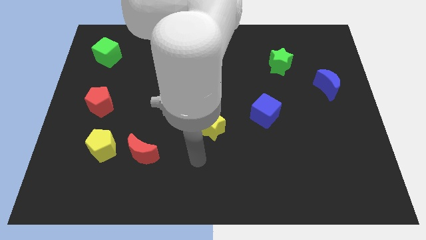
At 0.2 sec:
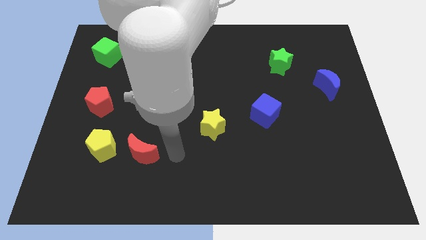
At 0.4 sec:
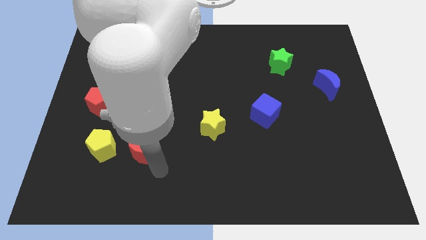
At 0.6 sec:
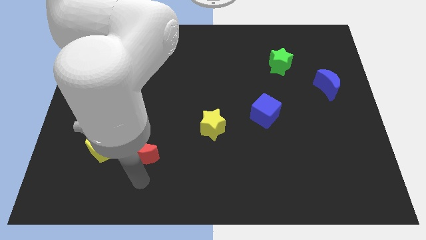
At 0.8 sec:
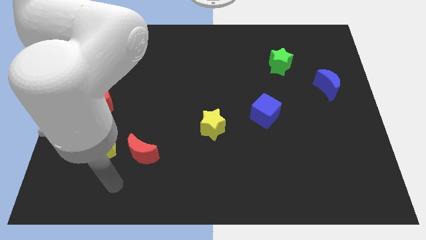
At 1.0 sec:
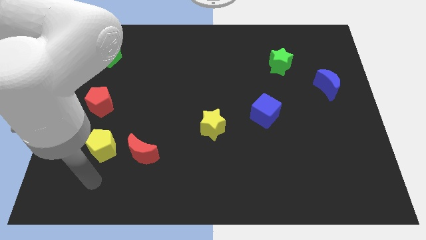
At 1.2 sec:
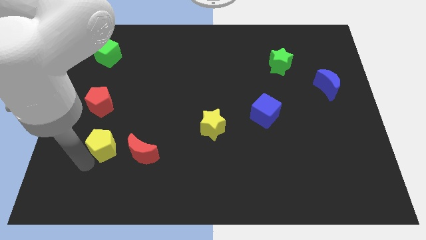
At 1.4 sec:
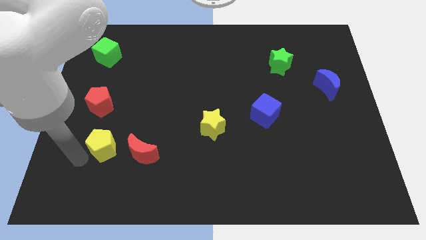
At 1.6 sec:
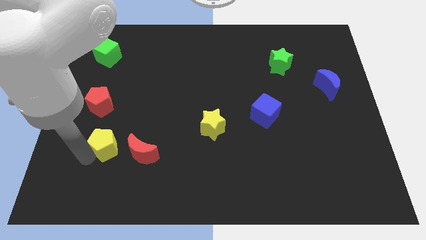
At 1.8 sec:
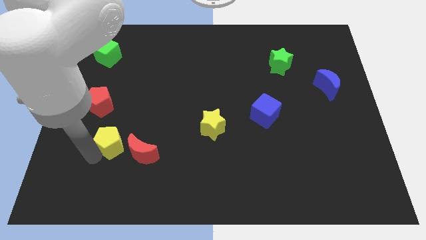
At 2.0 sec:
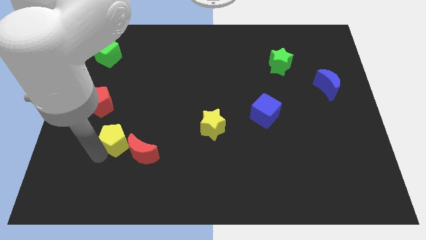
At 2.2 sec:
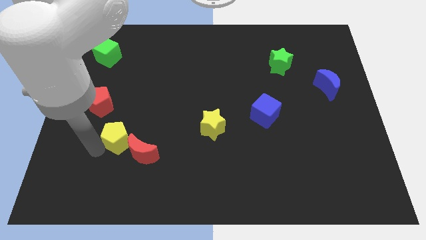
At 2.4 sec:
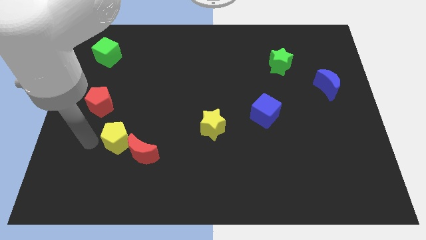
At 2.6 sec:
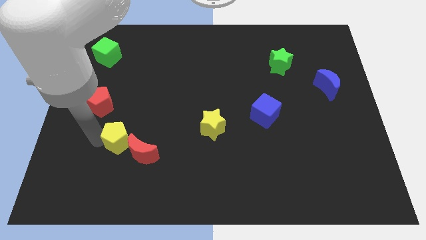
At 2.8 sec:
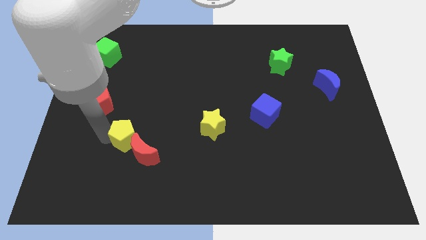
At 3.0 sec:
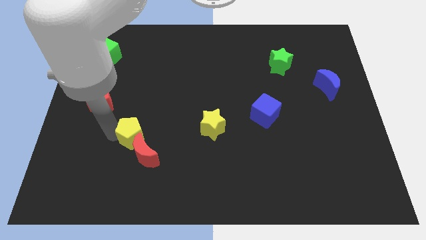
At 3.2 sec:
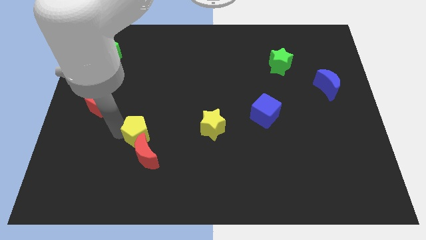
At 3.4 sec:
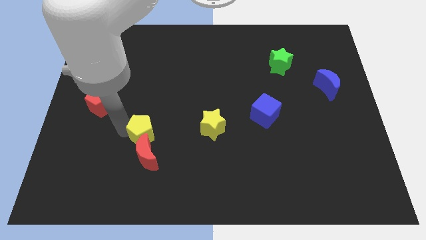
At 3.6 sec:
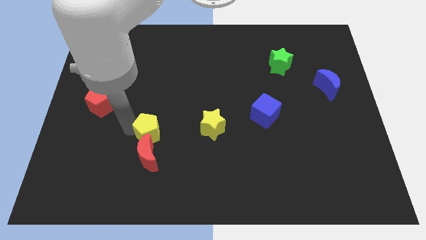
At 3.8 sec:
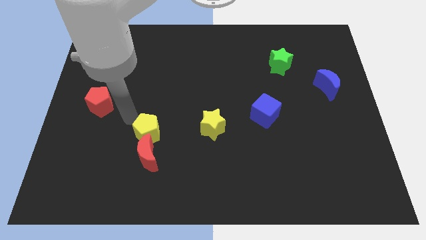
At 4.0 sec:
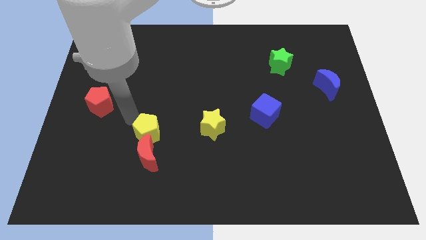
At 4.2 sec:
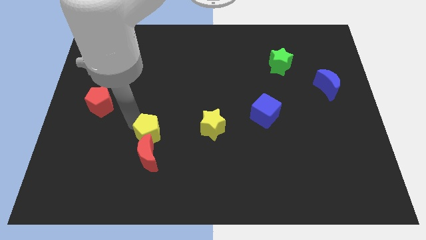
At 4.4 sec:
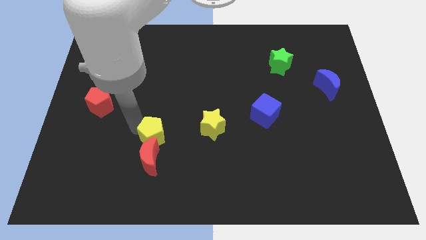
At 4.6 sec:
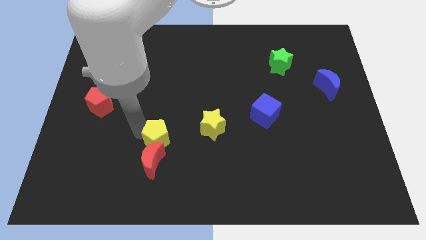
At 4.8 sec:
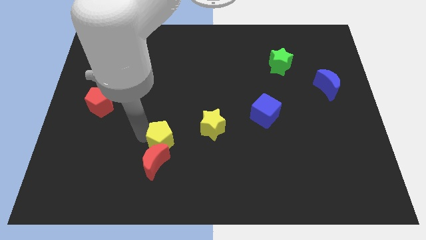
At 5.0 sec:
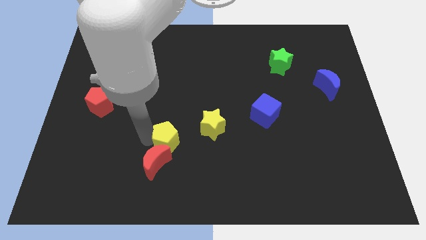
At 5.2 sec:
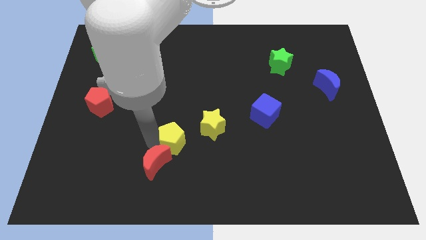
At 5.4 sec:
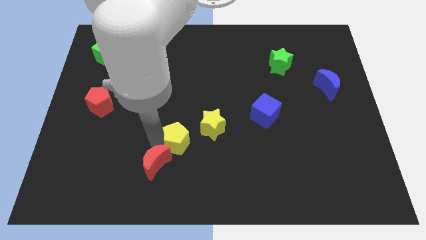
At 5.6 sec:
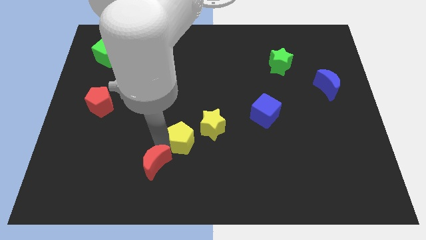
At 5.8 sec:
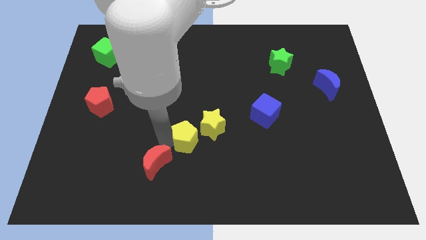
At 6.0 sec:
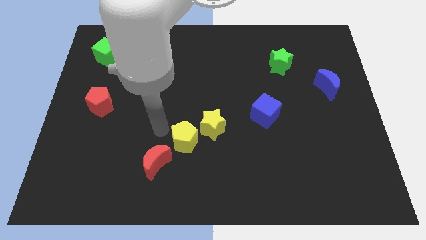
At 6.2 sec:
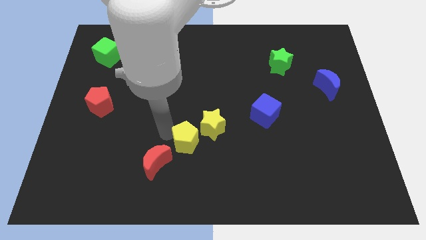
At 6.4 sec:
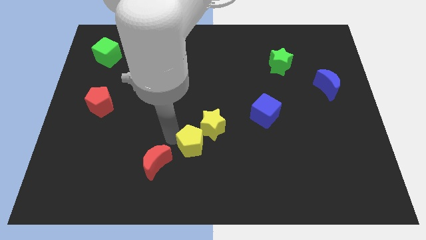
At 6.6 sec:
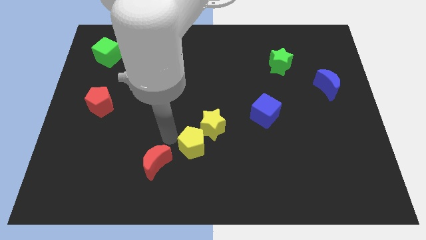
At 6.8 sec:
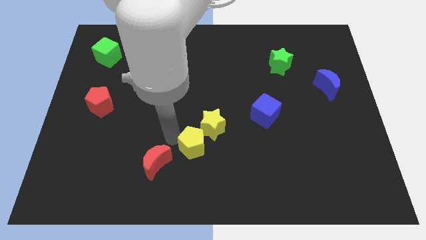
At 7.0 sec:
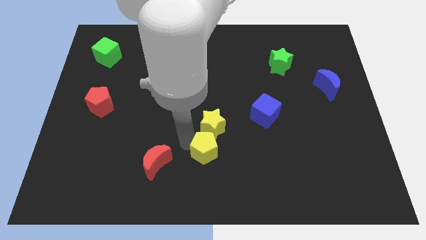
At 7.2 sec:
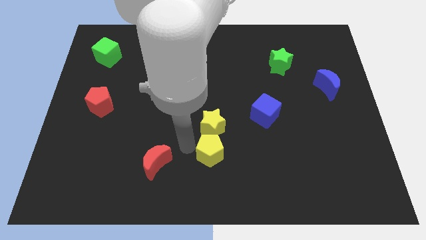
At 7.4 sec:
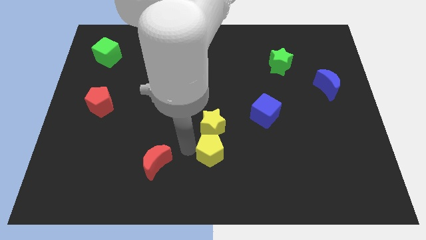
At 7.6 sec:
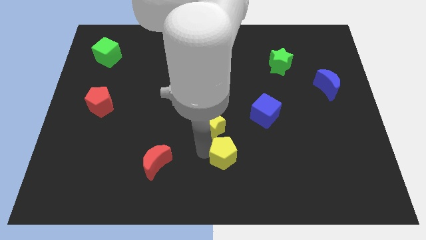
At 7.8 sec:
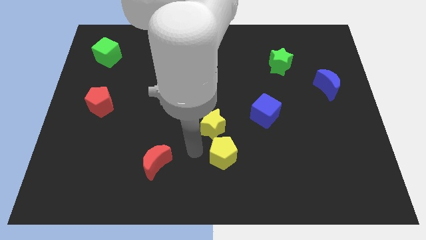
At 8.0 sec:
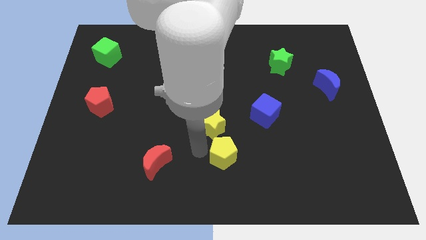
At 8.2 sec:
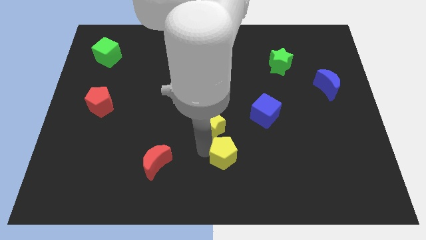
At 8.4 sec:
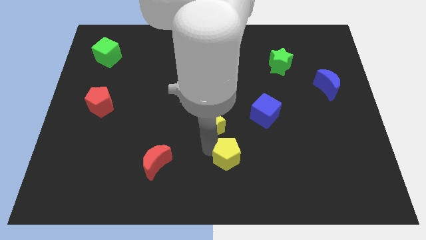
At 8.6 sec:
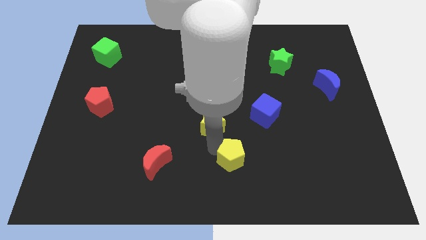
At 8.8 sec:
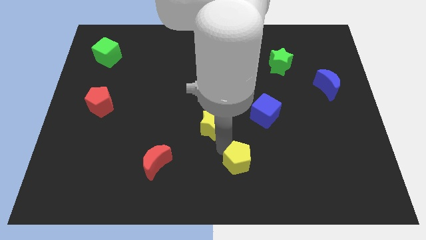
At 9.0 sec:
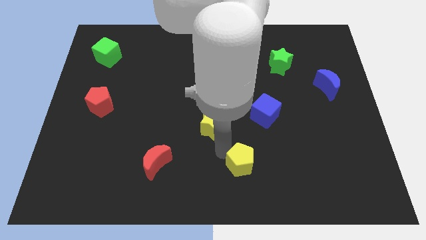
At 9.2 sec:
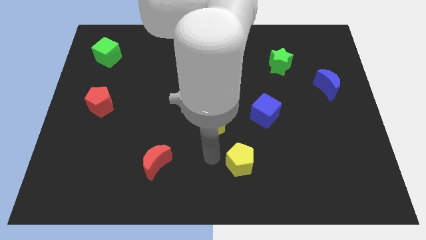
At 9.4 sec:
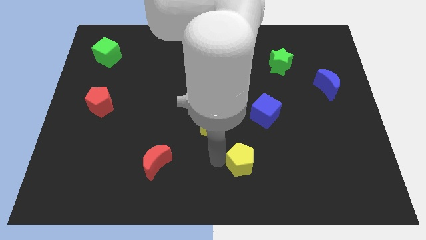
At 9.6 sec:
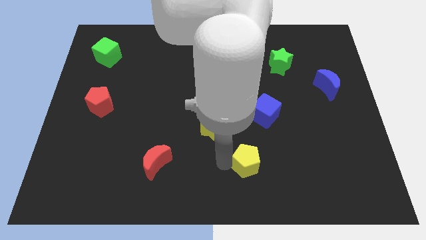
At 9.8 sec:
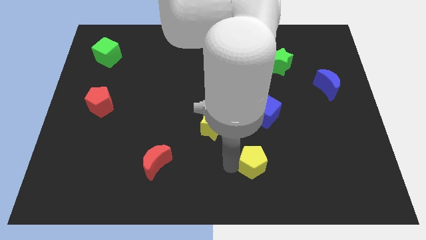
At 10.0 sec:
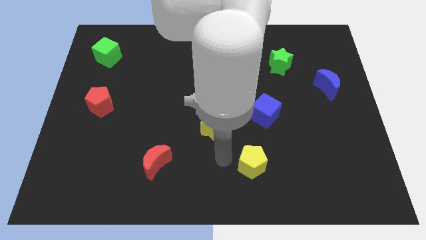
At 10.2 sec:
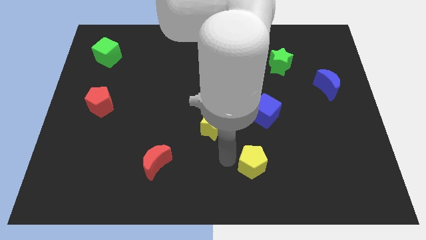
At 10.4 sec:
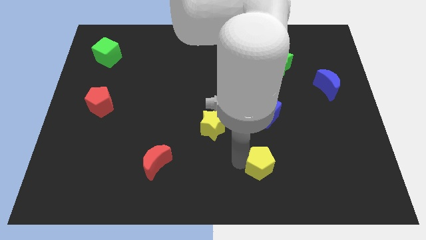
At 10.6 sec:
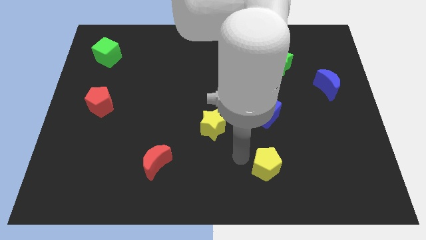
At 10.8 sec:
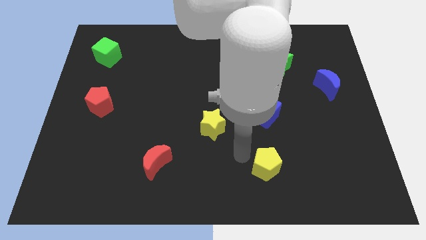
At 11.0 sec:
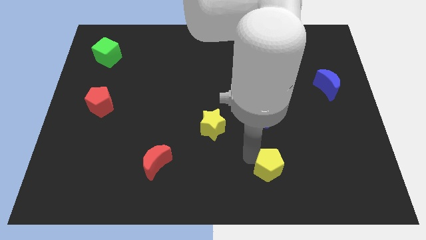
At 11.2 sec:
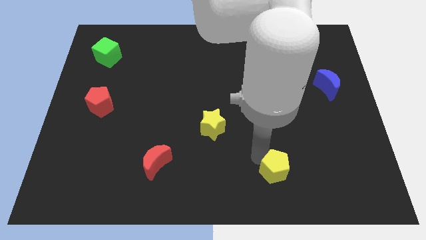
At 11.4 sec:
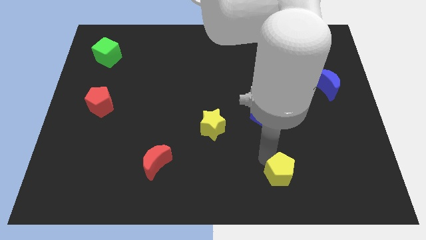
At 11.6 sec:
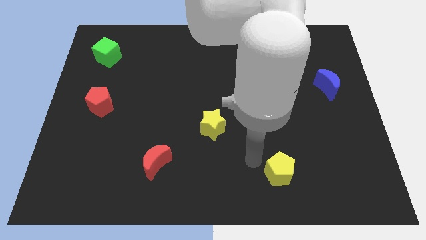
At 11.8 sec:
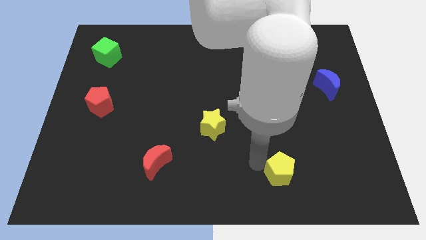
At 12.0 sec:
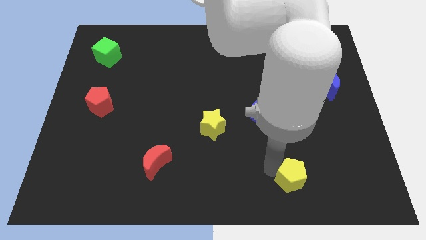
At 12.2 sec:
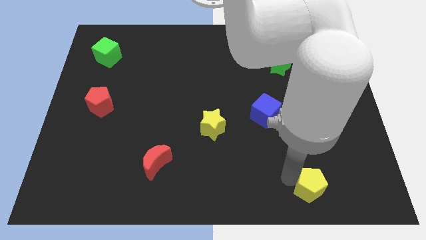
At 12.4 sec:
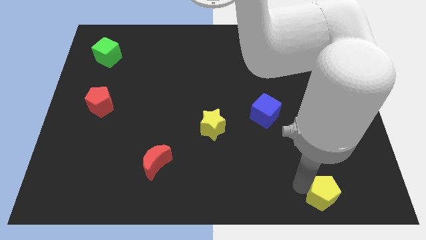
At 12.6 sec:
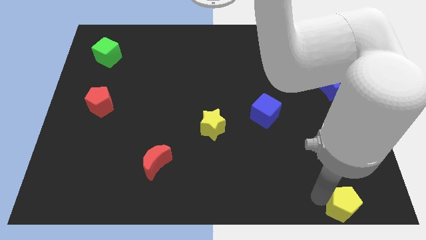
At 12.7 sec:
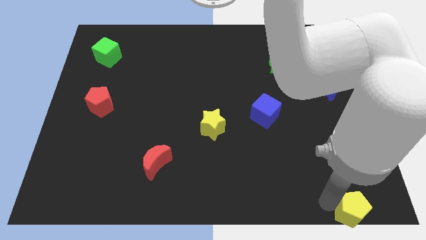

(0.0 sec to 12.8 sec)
put the yellow pentagon to the bottom right
